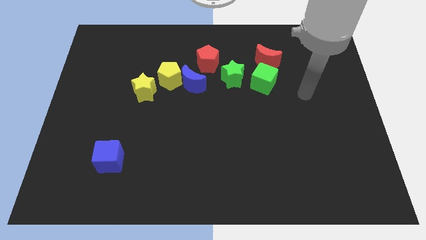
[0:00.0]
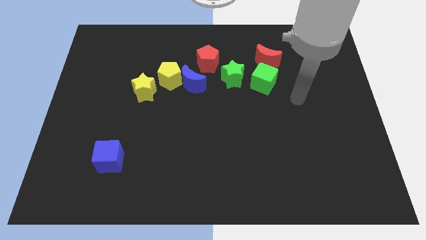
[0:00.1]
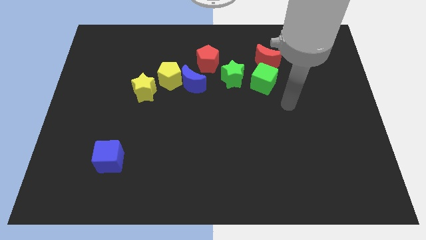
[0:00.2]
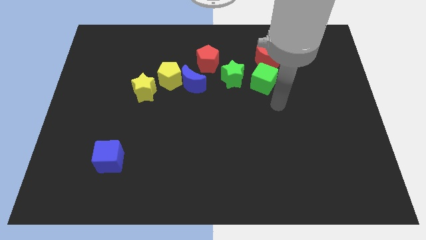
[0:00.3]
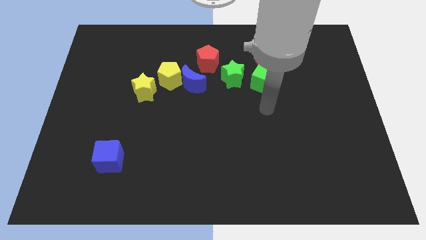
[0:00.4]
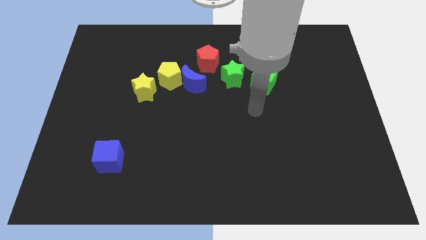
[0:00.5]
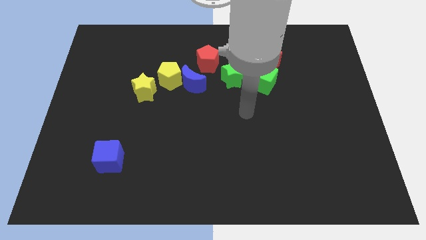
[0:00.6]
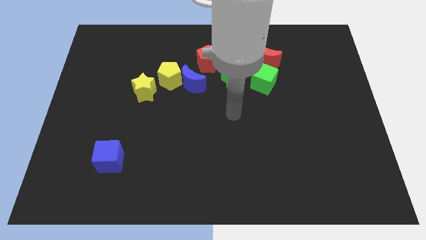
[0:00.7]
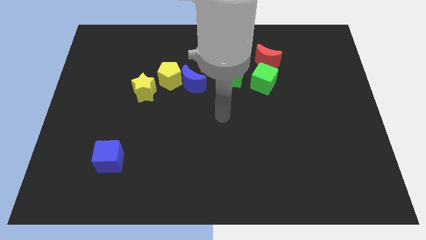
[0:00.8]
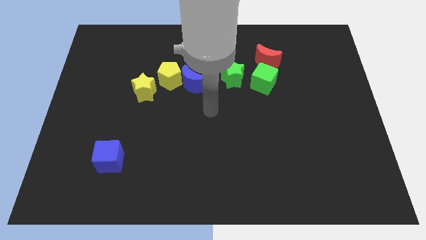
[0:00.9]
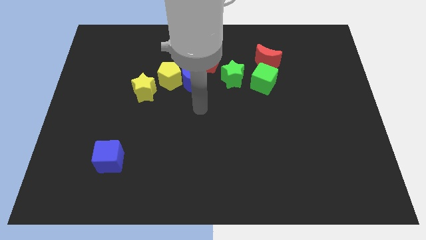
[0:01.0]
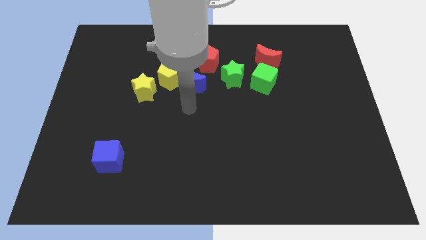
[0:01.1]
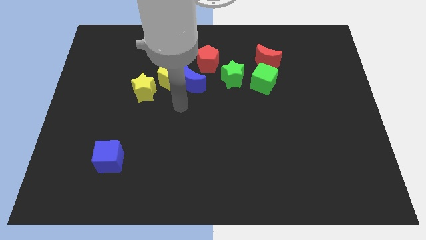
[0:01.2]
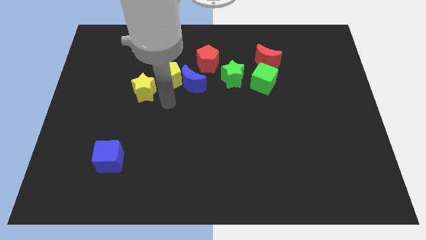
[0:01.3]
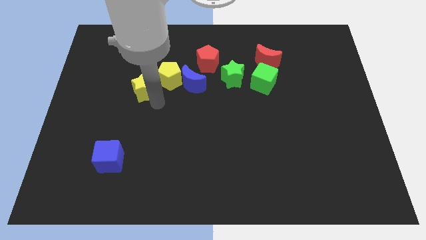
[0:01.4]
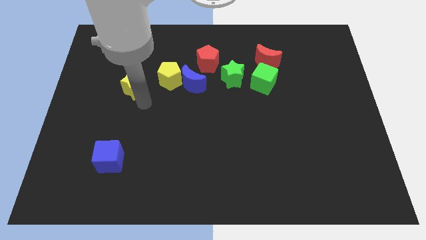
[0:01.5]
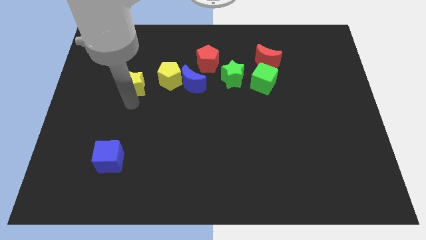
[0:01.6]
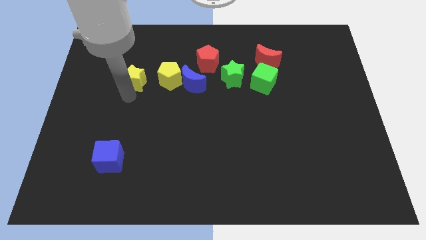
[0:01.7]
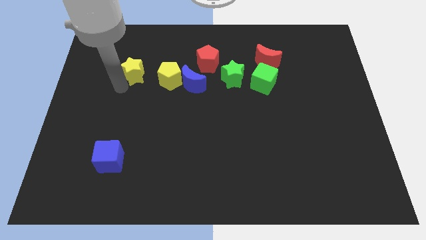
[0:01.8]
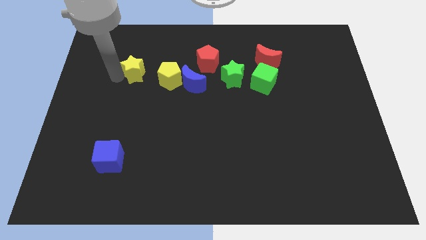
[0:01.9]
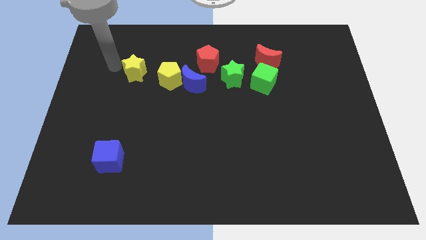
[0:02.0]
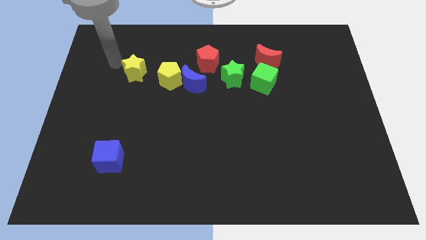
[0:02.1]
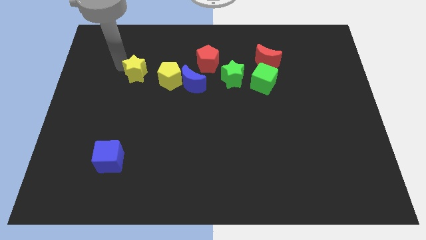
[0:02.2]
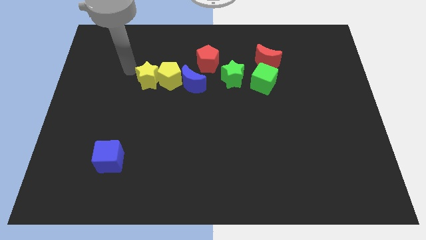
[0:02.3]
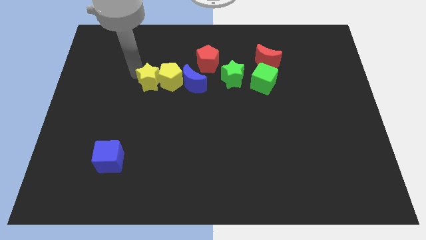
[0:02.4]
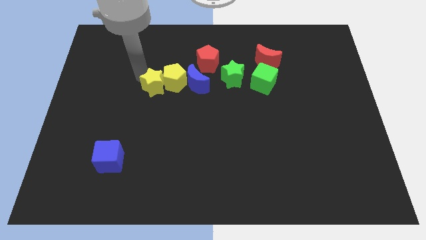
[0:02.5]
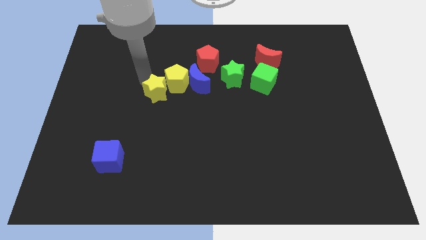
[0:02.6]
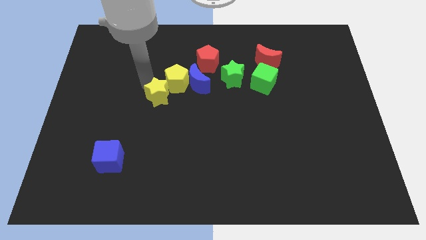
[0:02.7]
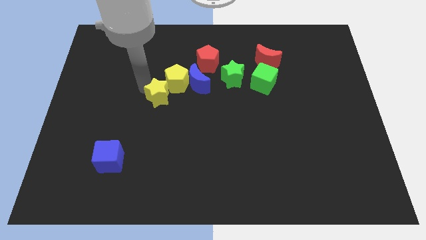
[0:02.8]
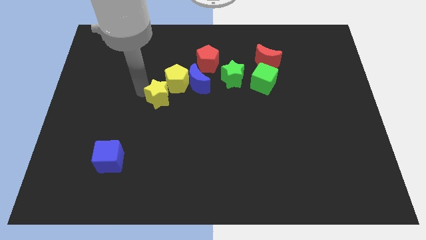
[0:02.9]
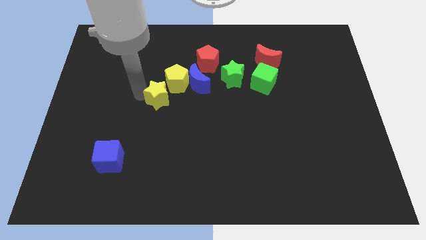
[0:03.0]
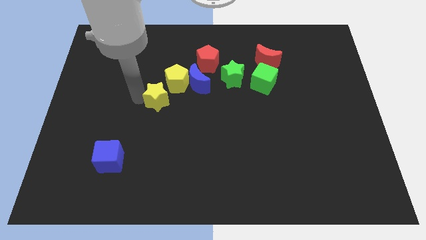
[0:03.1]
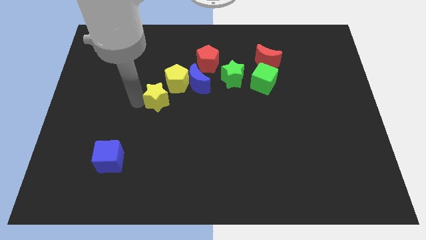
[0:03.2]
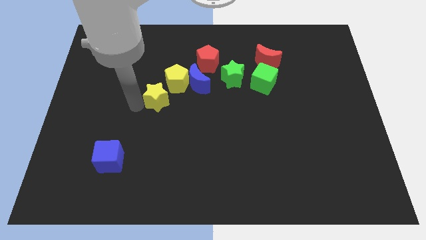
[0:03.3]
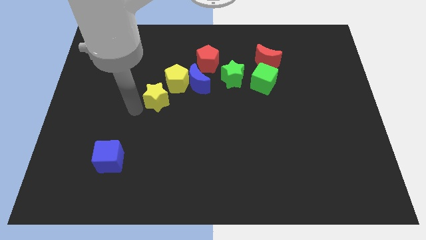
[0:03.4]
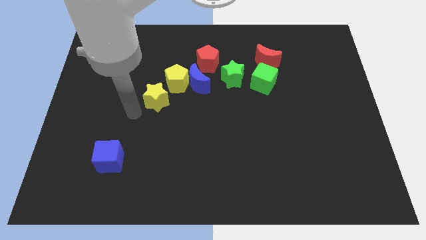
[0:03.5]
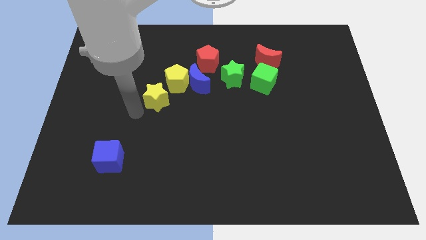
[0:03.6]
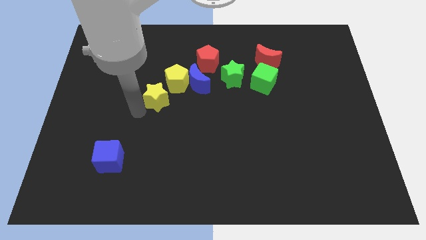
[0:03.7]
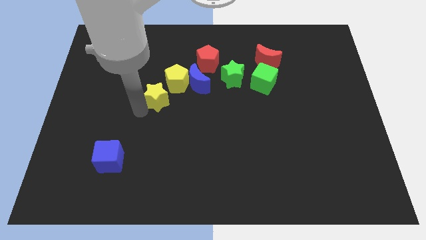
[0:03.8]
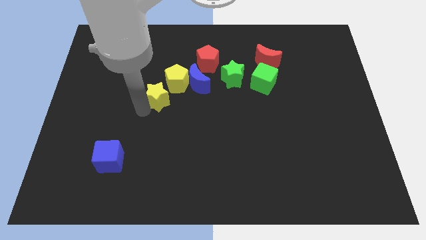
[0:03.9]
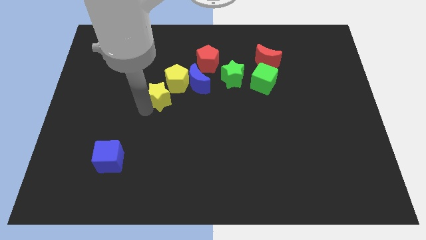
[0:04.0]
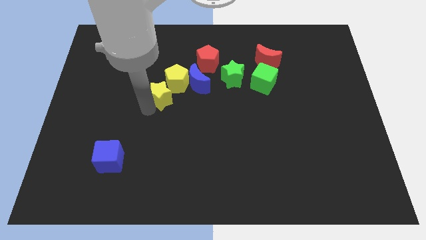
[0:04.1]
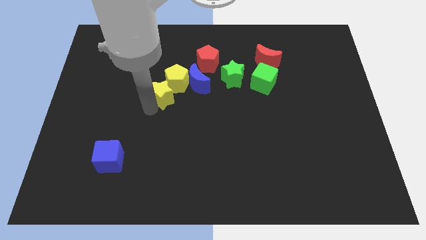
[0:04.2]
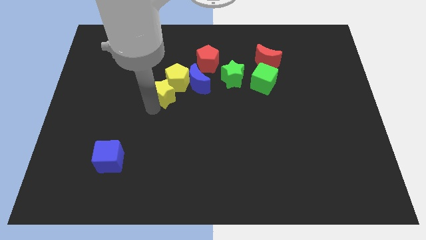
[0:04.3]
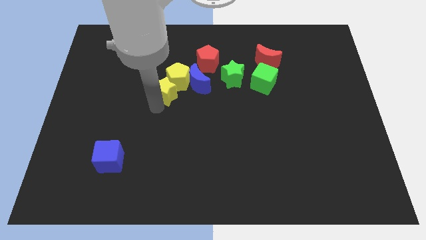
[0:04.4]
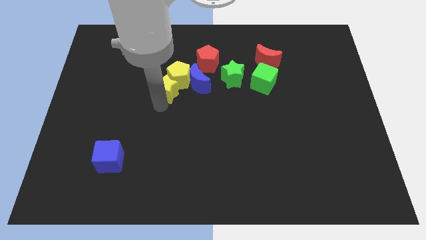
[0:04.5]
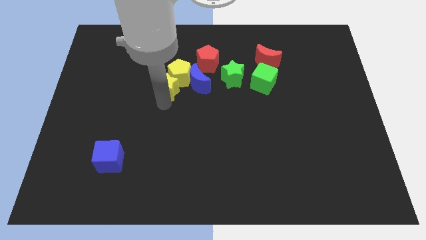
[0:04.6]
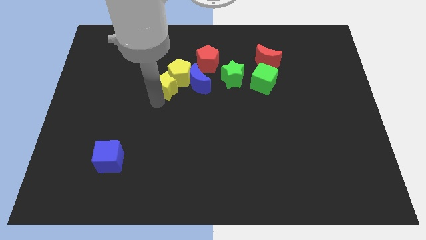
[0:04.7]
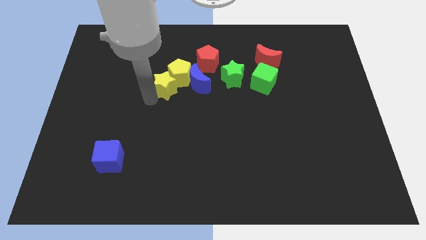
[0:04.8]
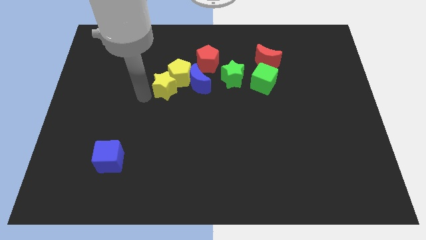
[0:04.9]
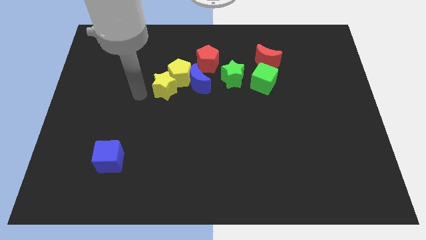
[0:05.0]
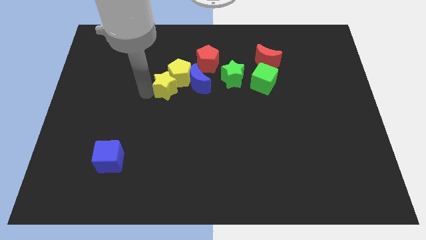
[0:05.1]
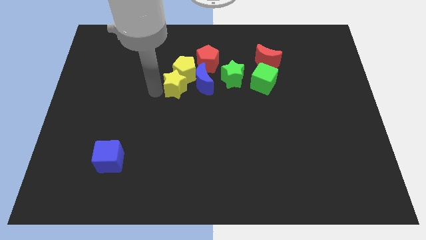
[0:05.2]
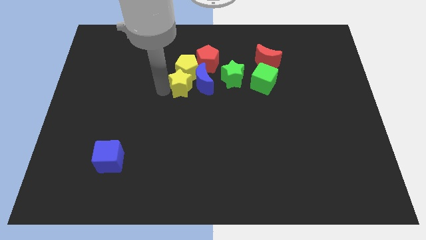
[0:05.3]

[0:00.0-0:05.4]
push the yellow star close to the blue moon

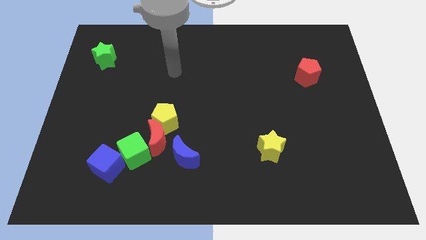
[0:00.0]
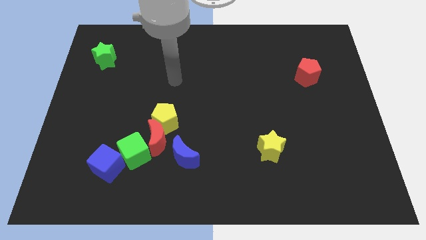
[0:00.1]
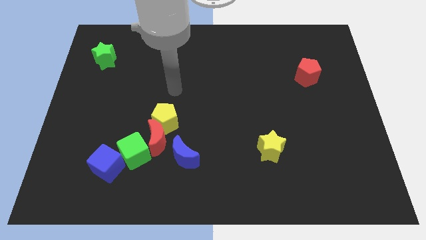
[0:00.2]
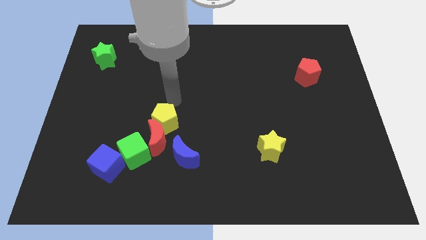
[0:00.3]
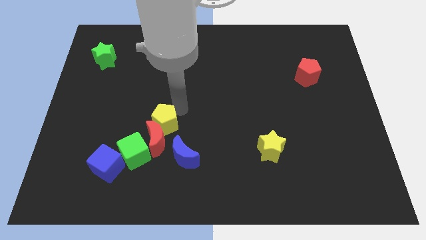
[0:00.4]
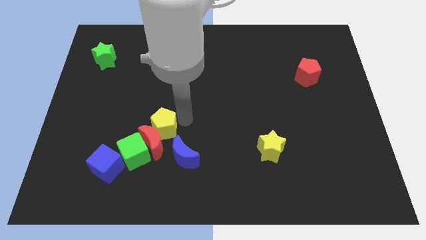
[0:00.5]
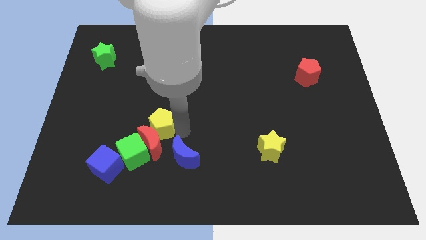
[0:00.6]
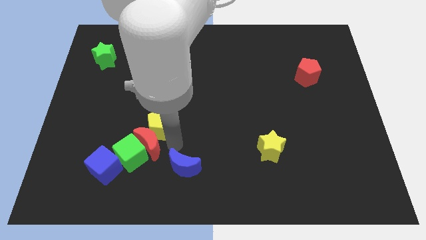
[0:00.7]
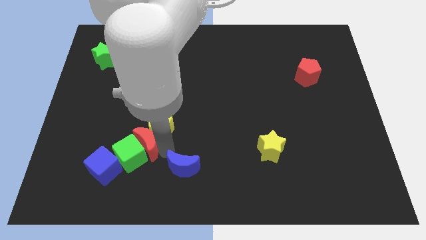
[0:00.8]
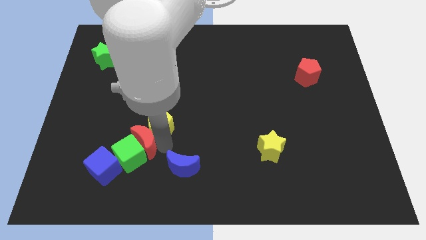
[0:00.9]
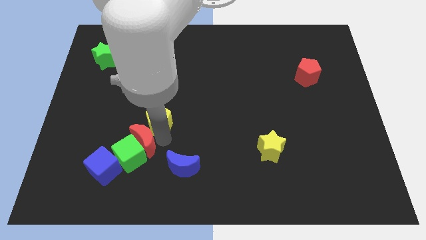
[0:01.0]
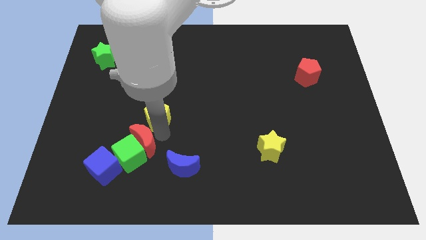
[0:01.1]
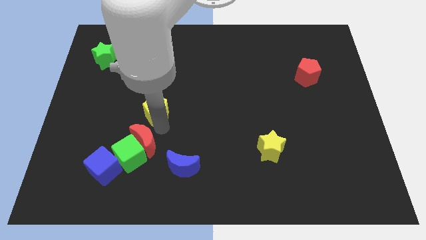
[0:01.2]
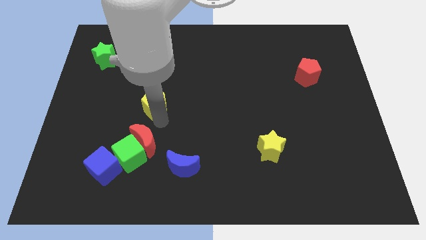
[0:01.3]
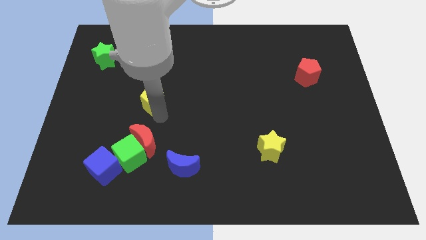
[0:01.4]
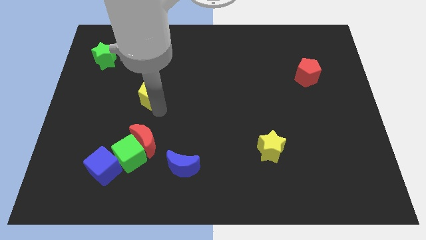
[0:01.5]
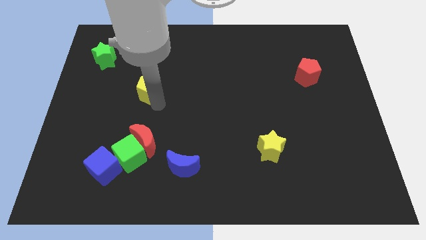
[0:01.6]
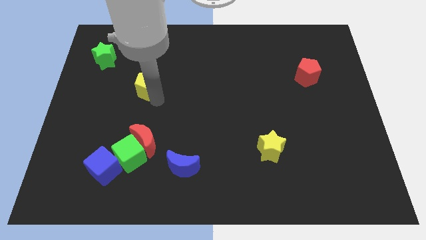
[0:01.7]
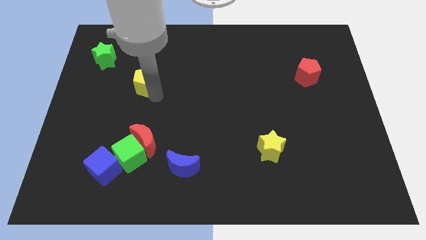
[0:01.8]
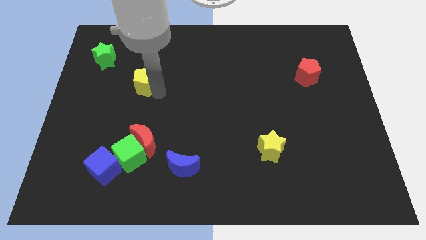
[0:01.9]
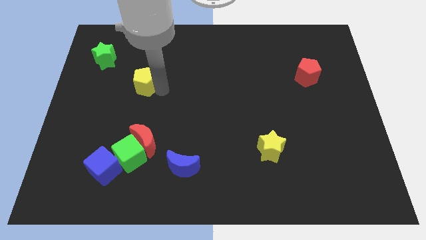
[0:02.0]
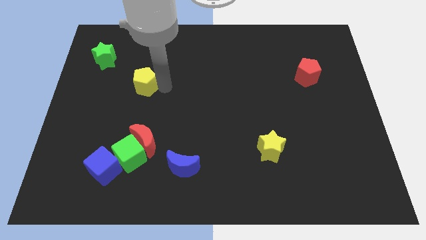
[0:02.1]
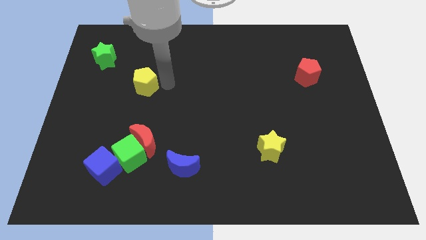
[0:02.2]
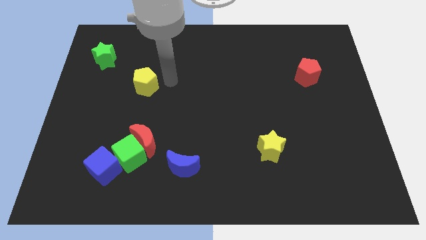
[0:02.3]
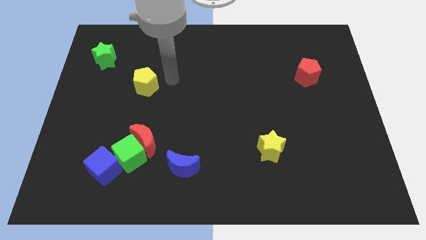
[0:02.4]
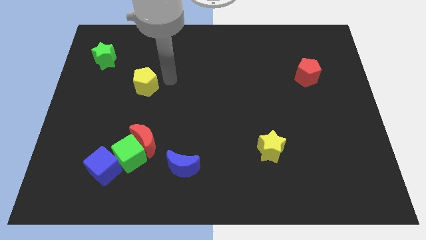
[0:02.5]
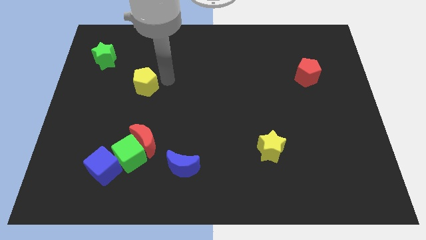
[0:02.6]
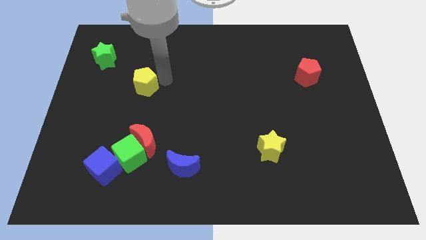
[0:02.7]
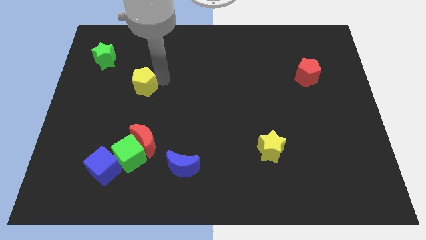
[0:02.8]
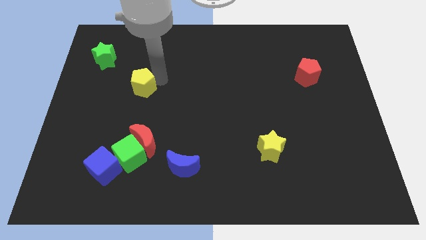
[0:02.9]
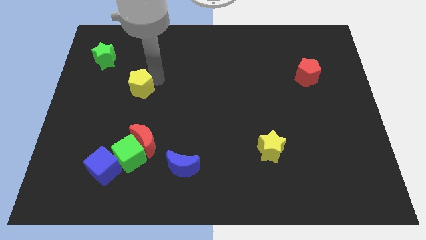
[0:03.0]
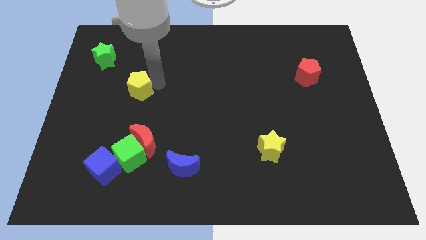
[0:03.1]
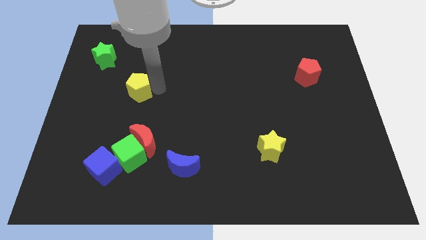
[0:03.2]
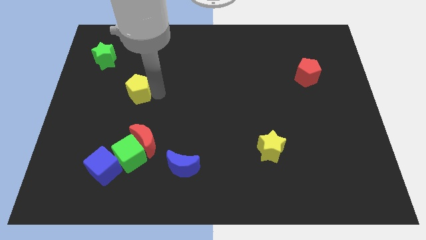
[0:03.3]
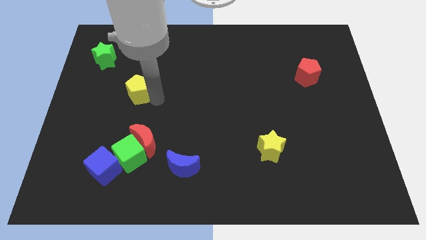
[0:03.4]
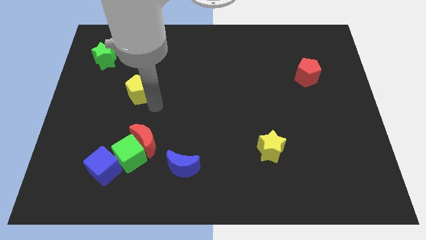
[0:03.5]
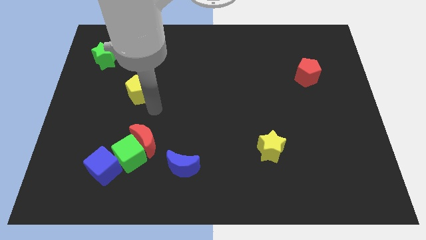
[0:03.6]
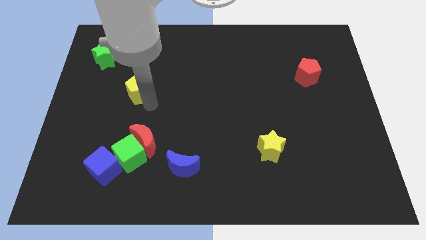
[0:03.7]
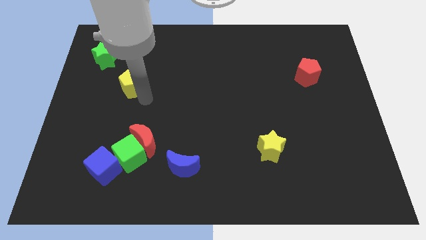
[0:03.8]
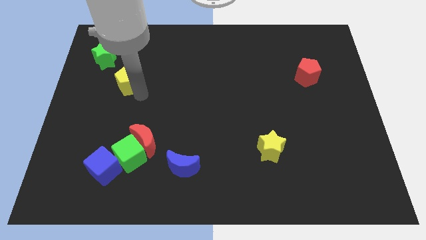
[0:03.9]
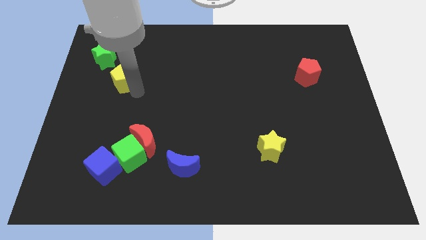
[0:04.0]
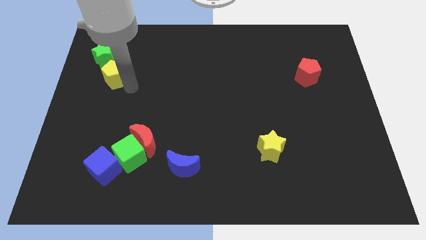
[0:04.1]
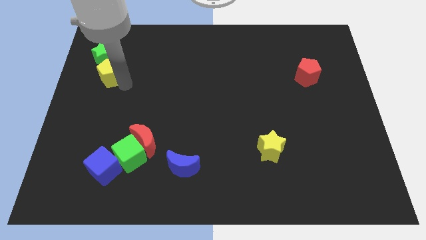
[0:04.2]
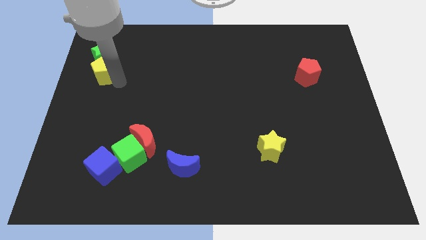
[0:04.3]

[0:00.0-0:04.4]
push the yellow pentagon next to the green star
